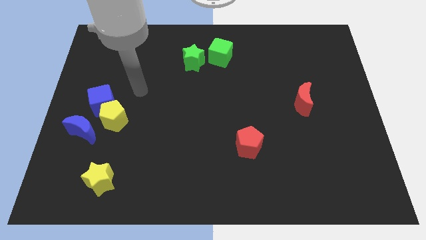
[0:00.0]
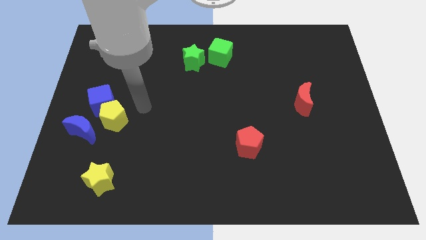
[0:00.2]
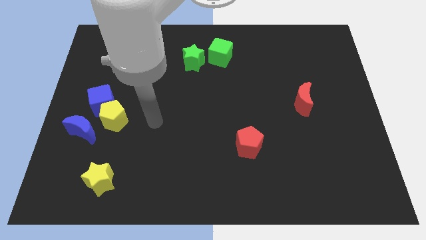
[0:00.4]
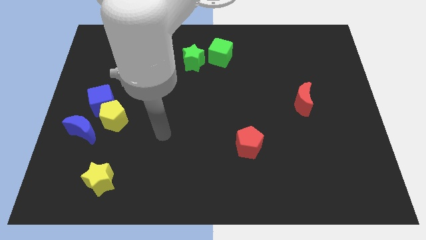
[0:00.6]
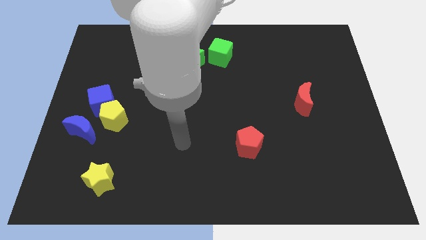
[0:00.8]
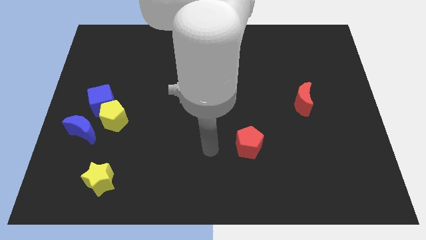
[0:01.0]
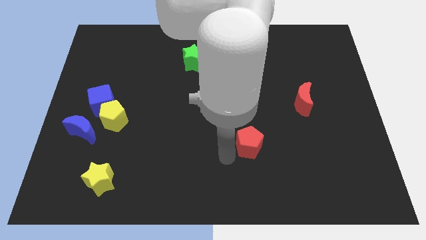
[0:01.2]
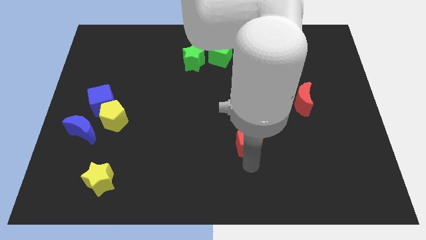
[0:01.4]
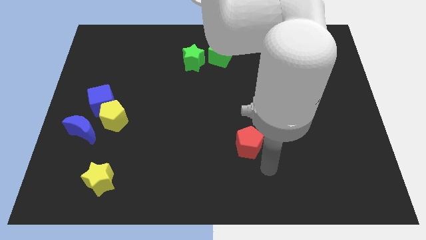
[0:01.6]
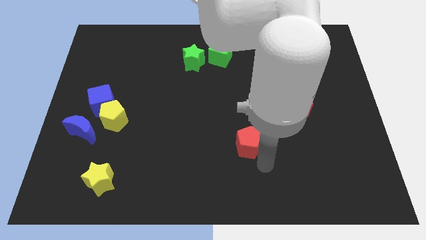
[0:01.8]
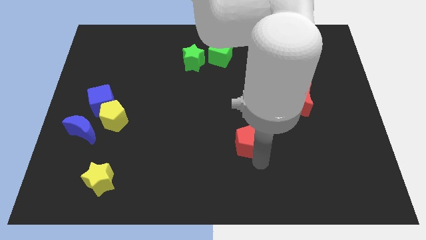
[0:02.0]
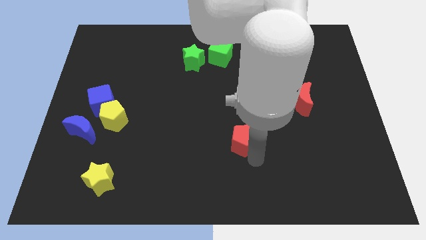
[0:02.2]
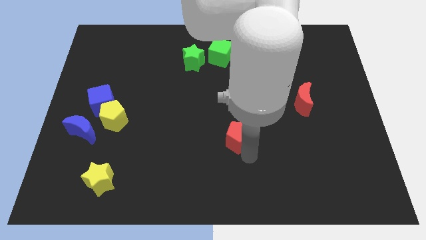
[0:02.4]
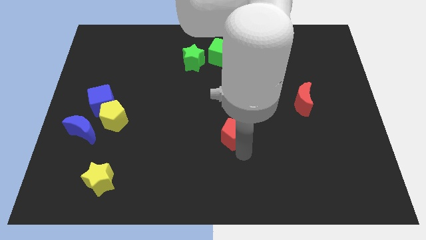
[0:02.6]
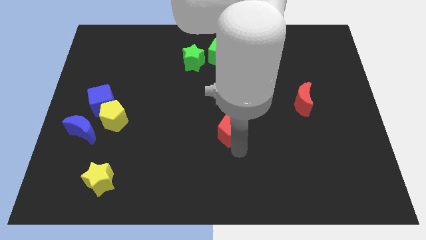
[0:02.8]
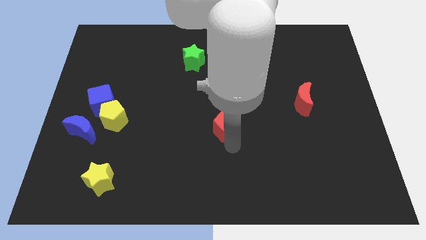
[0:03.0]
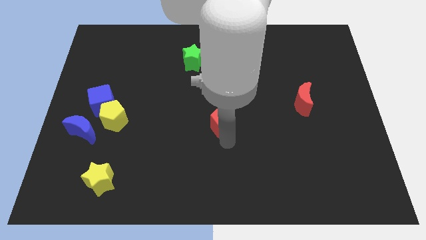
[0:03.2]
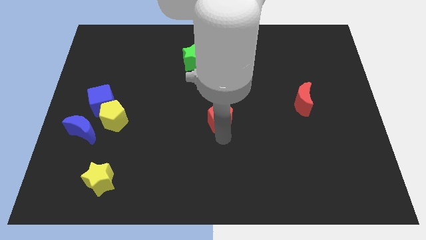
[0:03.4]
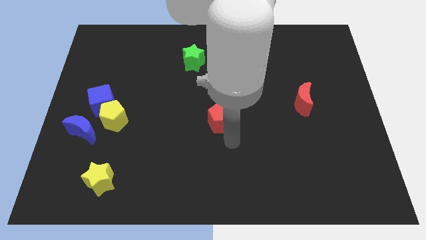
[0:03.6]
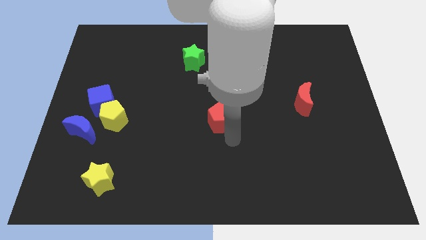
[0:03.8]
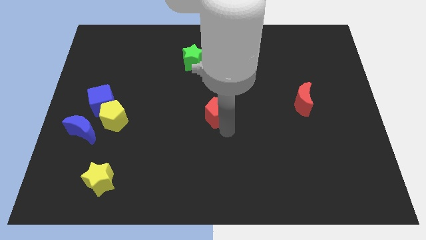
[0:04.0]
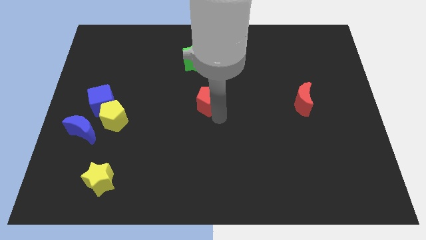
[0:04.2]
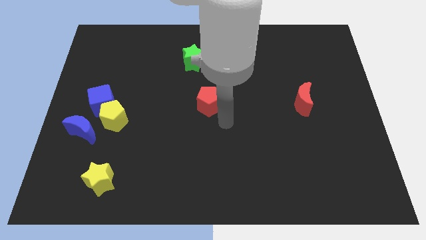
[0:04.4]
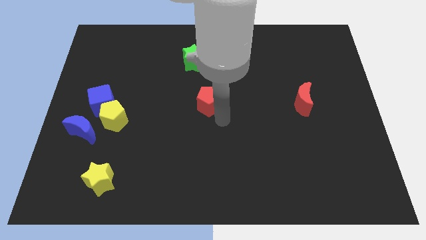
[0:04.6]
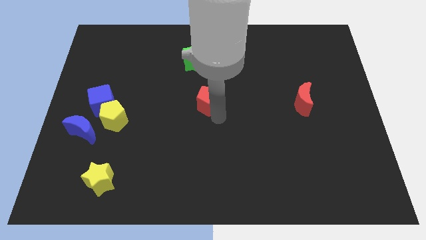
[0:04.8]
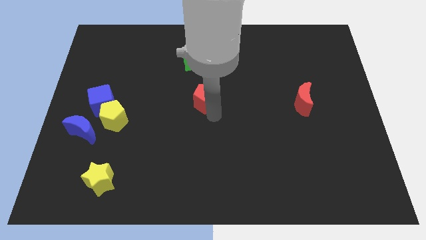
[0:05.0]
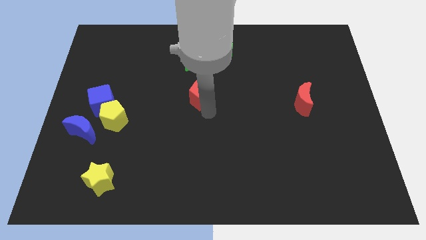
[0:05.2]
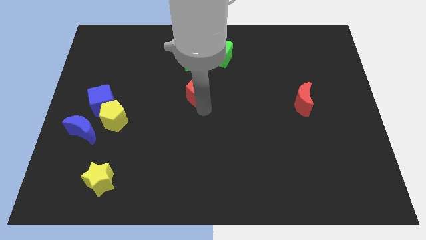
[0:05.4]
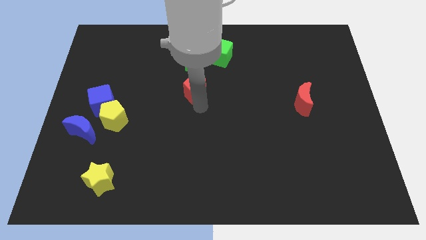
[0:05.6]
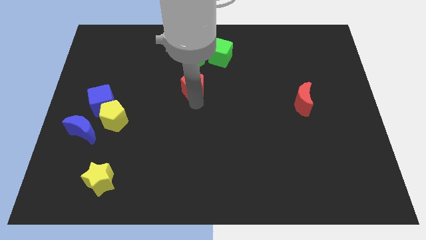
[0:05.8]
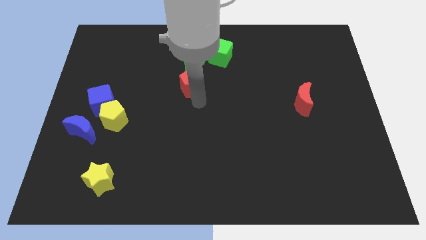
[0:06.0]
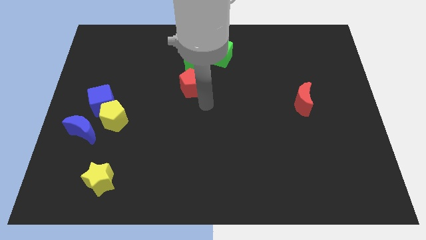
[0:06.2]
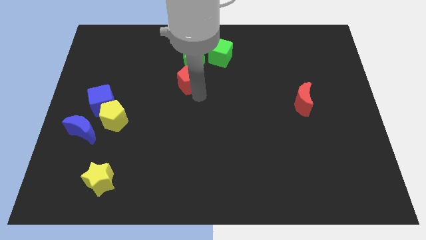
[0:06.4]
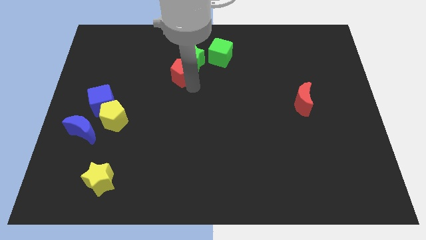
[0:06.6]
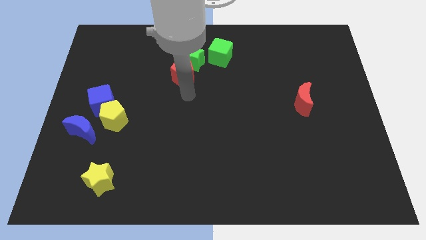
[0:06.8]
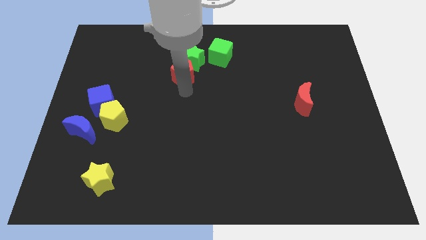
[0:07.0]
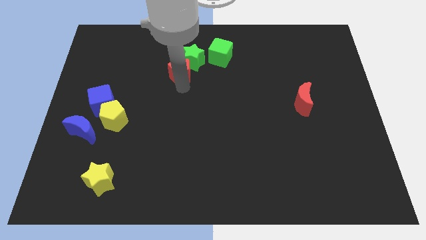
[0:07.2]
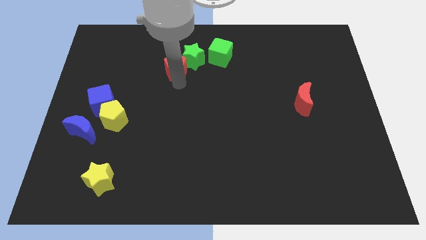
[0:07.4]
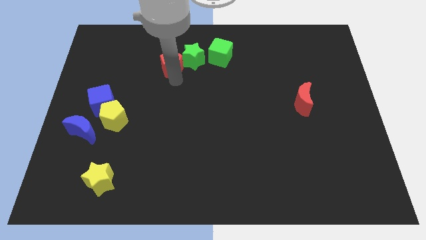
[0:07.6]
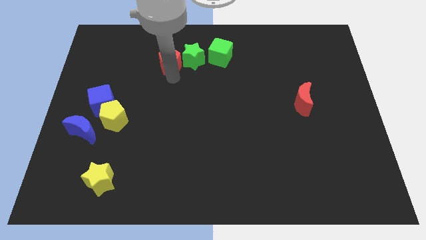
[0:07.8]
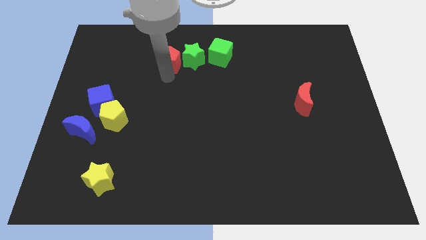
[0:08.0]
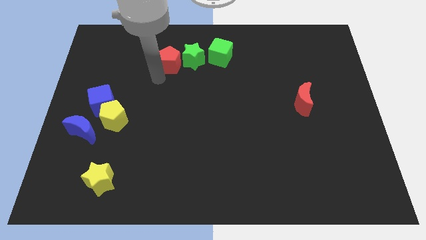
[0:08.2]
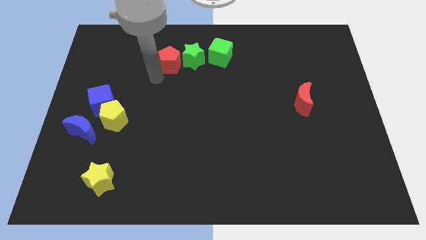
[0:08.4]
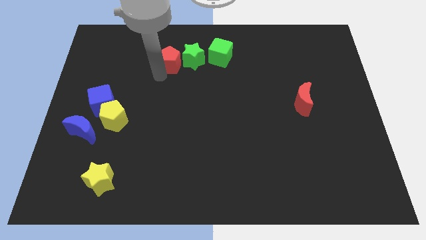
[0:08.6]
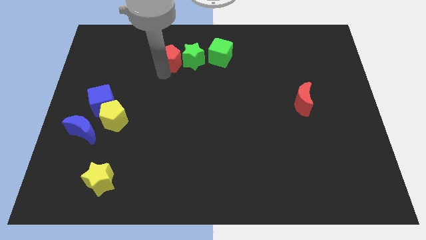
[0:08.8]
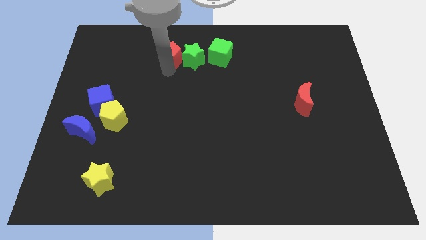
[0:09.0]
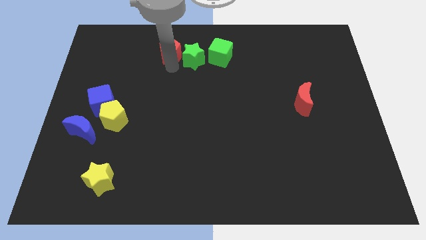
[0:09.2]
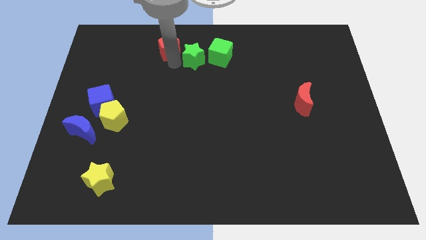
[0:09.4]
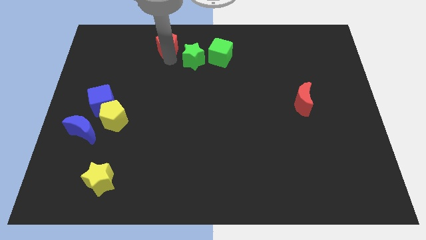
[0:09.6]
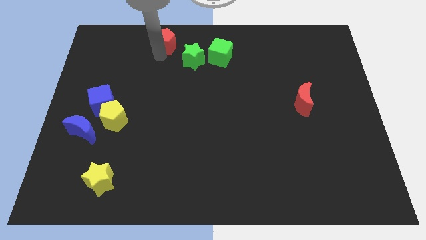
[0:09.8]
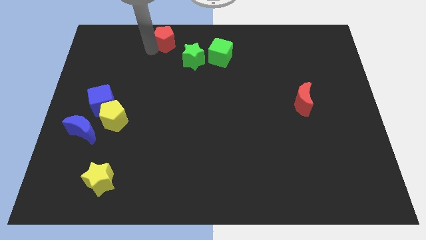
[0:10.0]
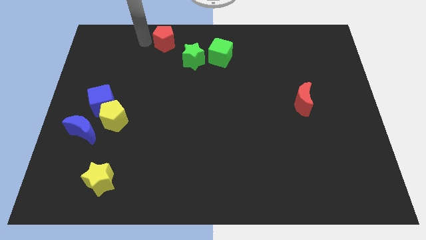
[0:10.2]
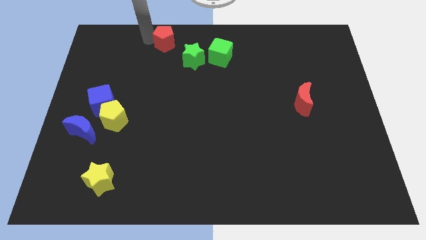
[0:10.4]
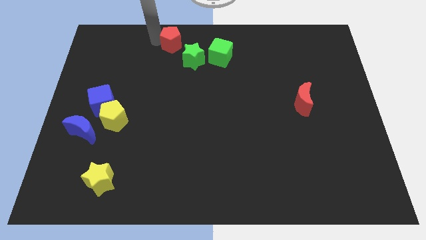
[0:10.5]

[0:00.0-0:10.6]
push the red pentagon to the top side

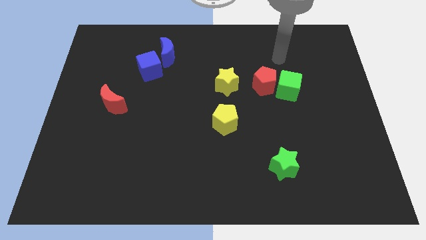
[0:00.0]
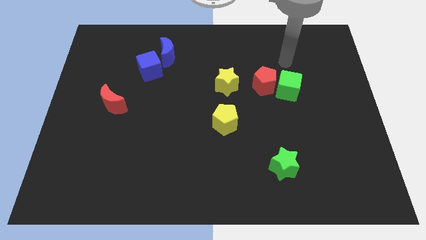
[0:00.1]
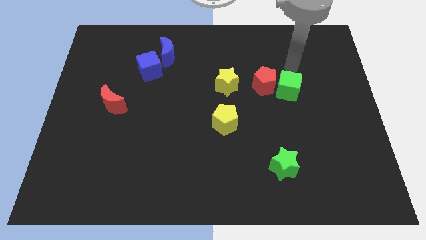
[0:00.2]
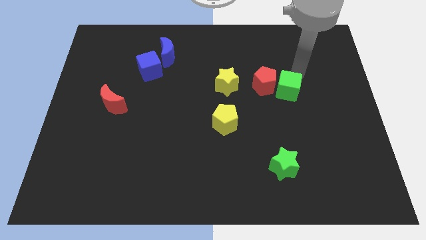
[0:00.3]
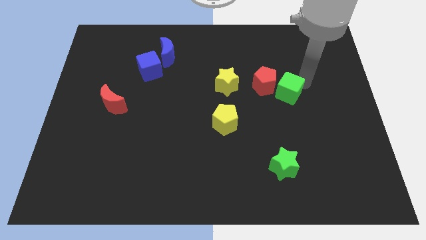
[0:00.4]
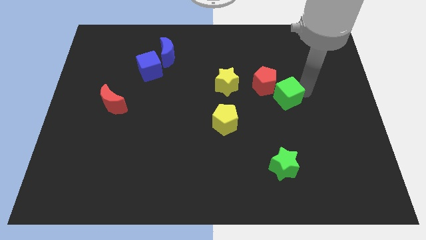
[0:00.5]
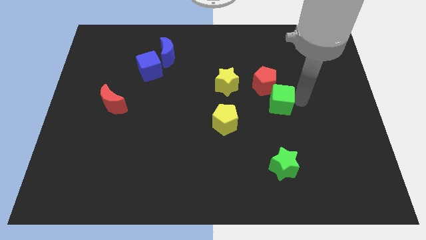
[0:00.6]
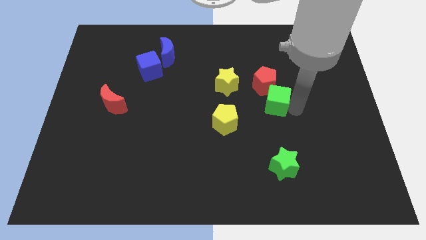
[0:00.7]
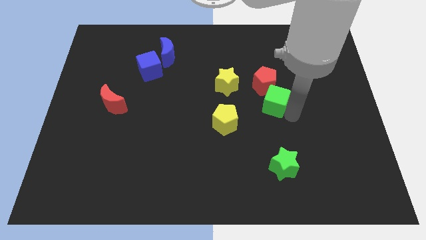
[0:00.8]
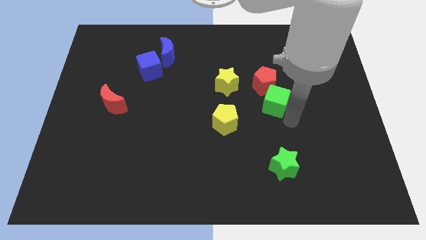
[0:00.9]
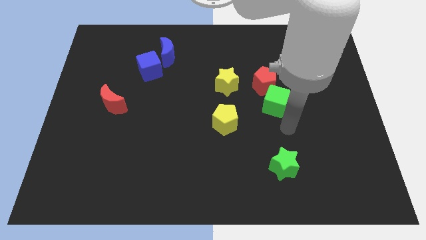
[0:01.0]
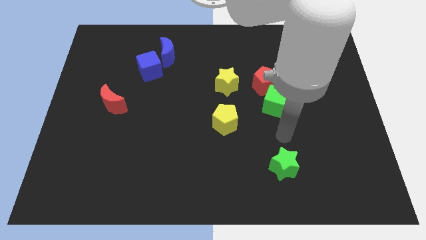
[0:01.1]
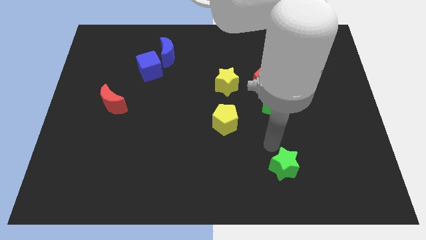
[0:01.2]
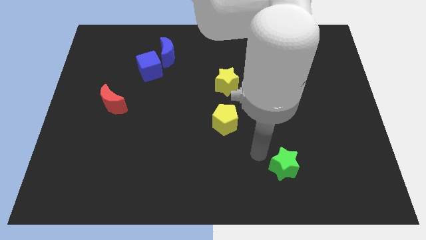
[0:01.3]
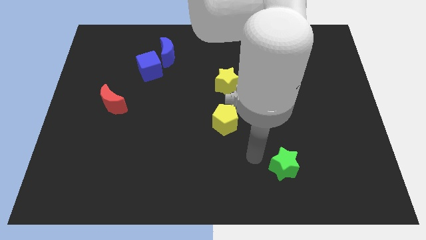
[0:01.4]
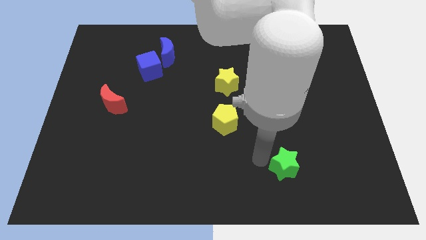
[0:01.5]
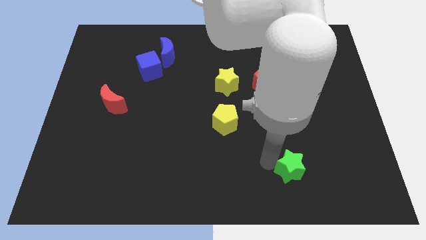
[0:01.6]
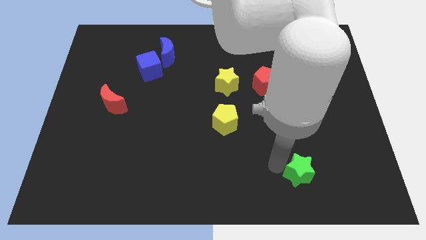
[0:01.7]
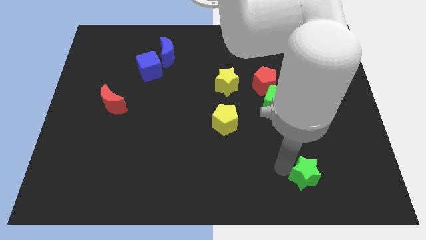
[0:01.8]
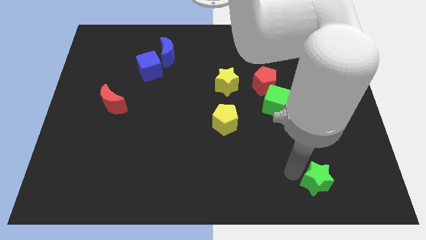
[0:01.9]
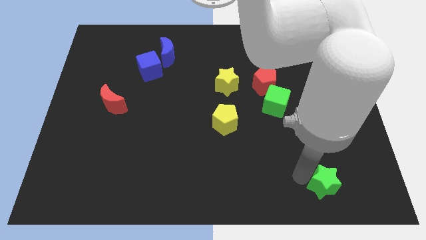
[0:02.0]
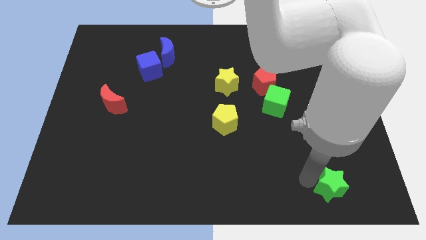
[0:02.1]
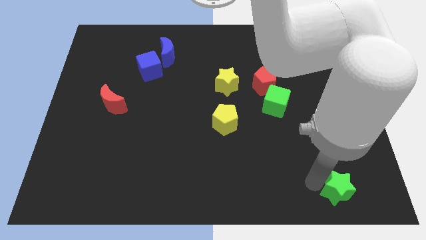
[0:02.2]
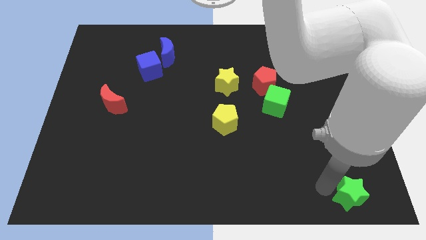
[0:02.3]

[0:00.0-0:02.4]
slide the green star to the bottom right
